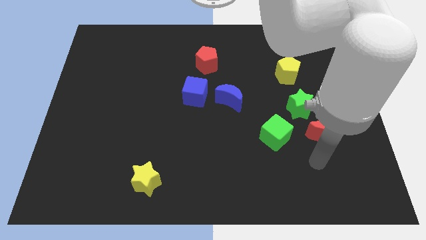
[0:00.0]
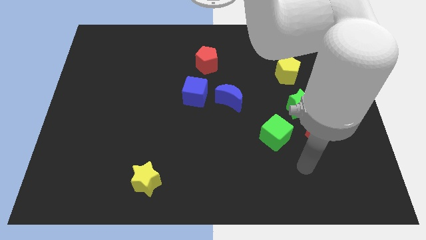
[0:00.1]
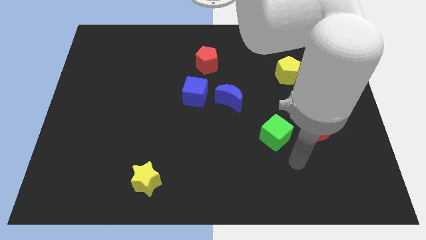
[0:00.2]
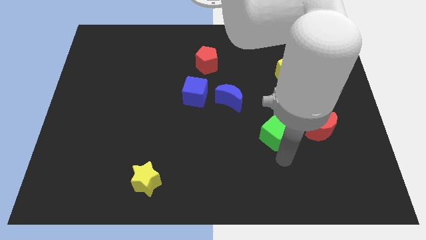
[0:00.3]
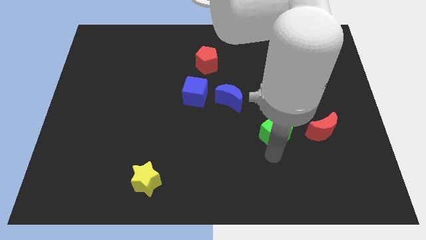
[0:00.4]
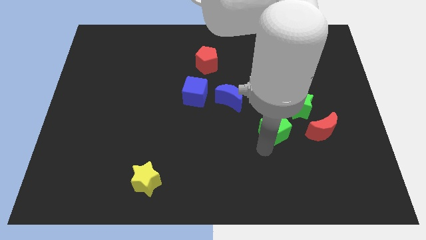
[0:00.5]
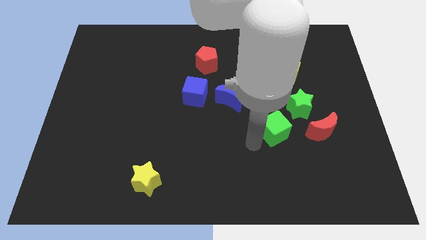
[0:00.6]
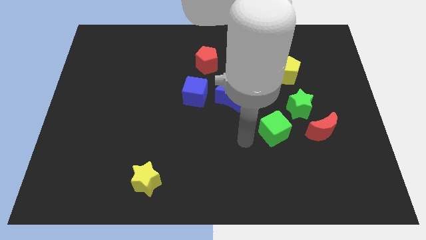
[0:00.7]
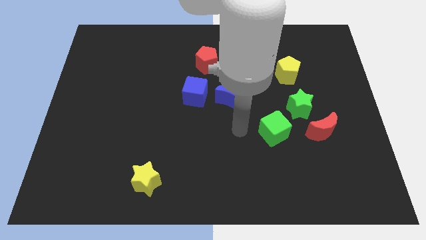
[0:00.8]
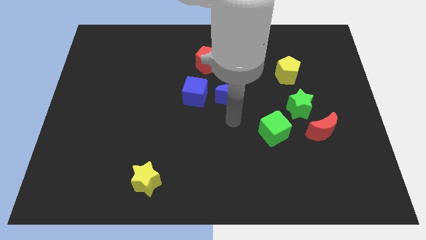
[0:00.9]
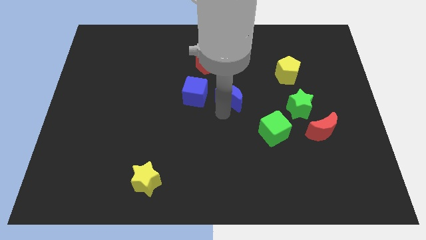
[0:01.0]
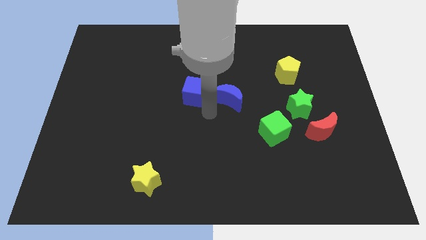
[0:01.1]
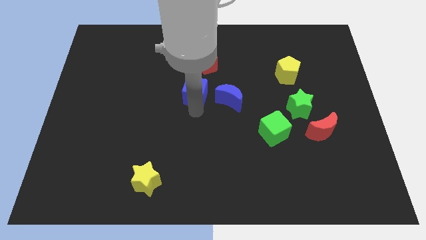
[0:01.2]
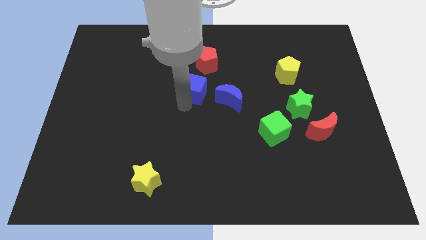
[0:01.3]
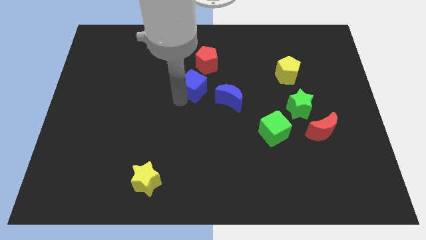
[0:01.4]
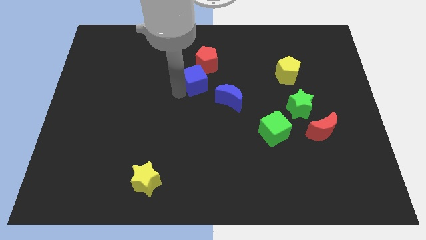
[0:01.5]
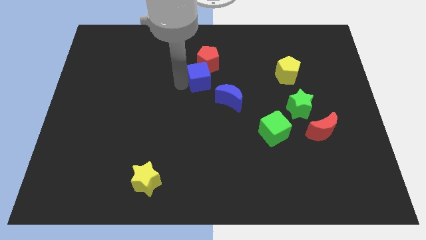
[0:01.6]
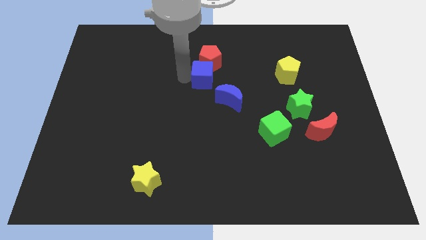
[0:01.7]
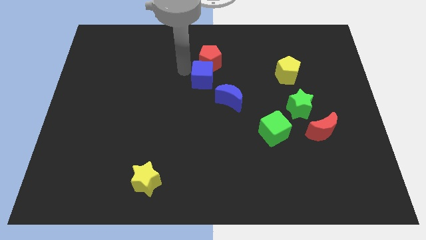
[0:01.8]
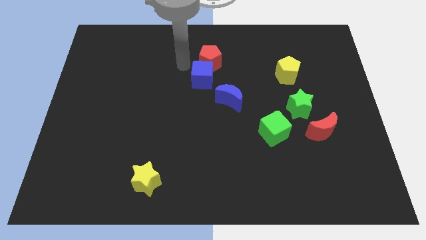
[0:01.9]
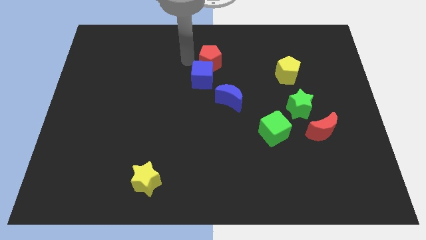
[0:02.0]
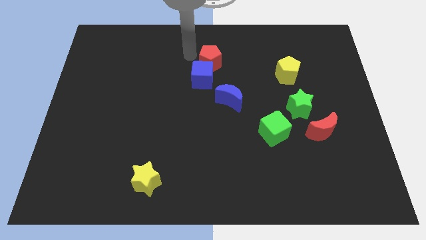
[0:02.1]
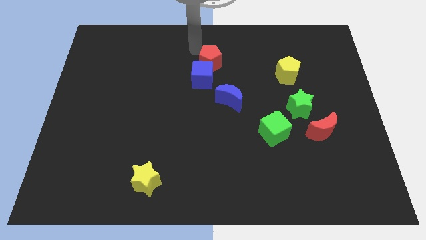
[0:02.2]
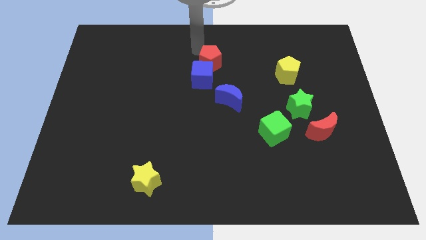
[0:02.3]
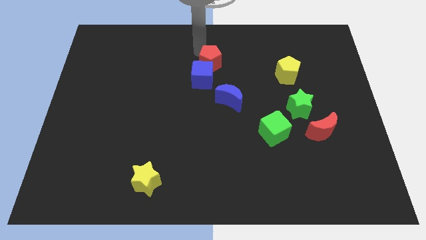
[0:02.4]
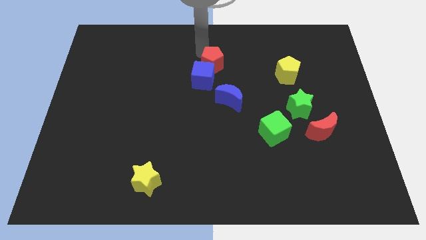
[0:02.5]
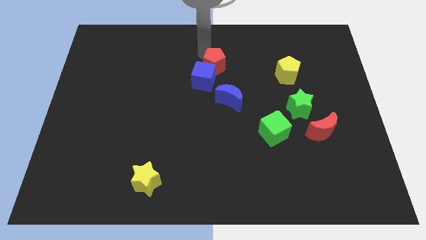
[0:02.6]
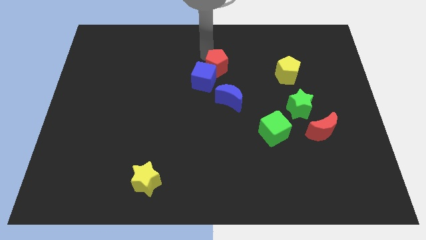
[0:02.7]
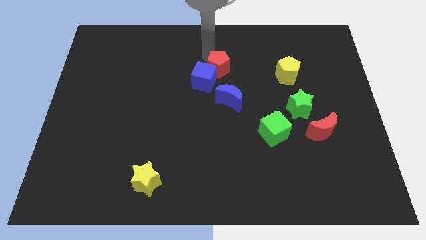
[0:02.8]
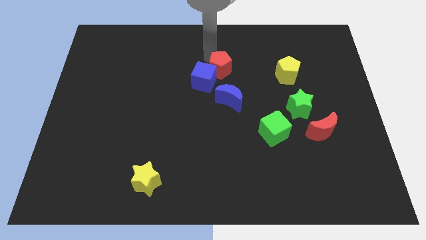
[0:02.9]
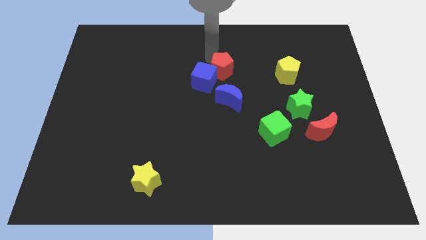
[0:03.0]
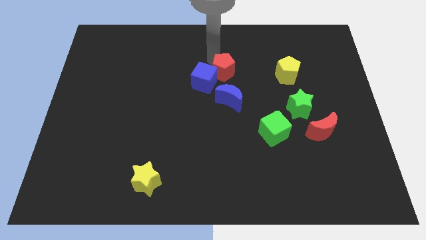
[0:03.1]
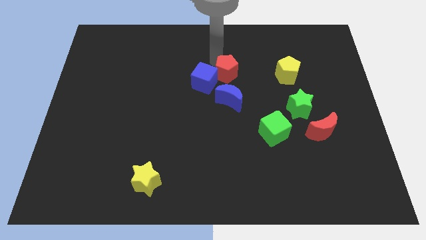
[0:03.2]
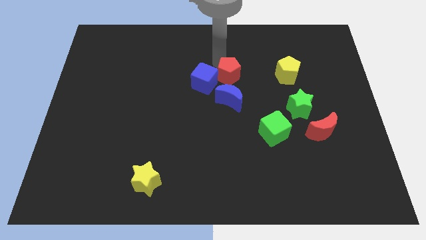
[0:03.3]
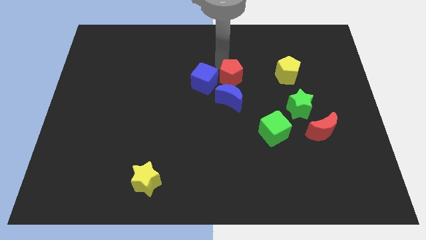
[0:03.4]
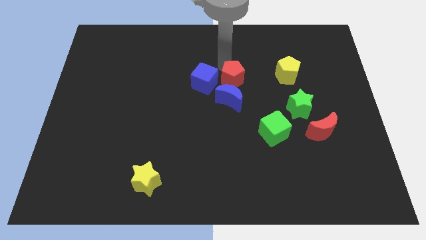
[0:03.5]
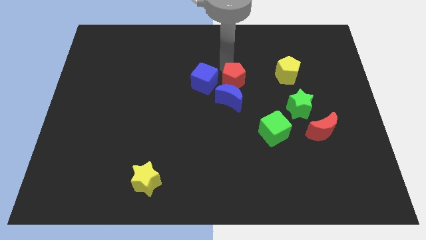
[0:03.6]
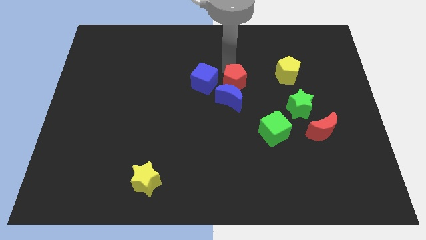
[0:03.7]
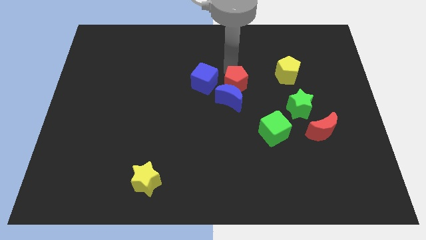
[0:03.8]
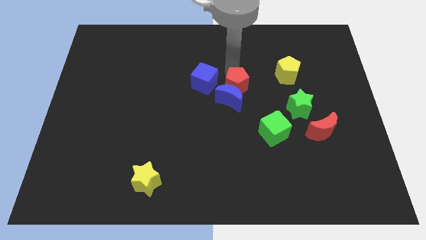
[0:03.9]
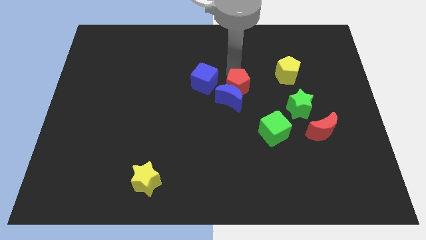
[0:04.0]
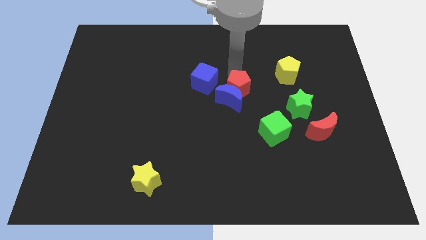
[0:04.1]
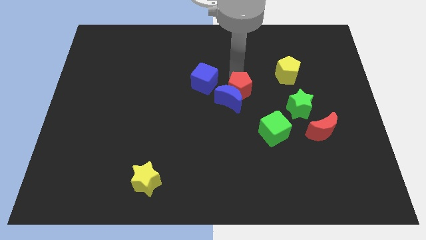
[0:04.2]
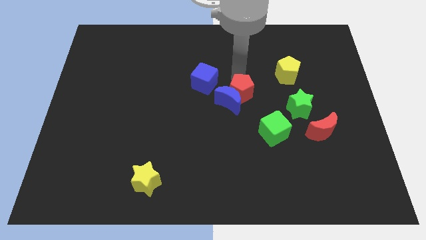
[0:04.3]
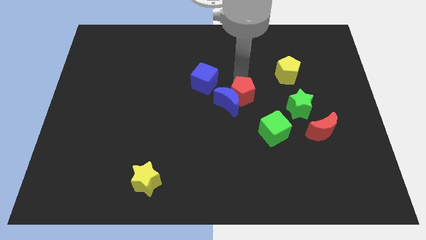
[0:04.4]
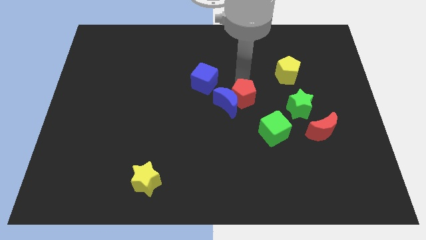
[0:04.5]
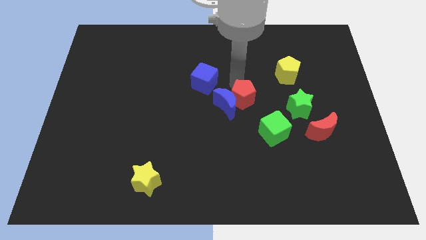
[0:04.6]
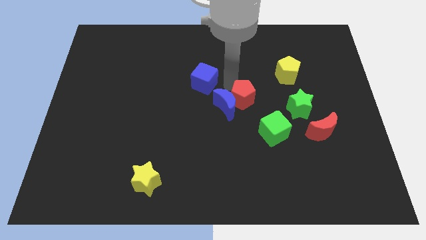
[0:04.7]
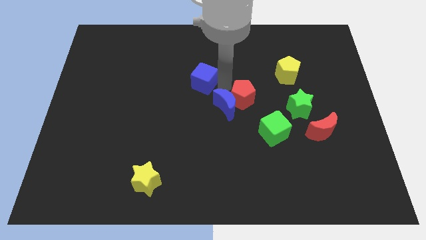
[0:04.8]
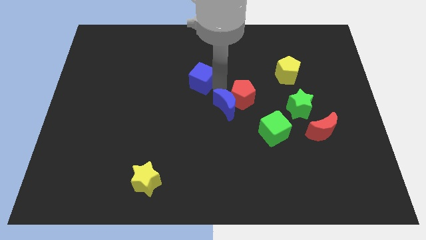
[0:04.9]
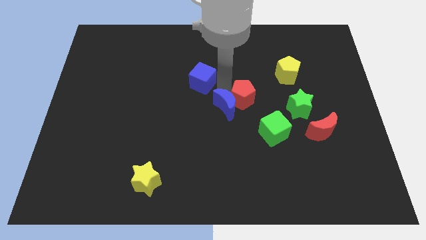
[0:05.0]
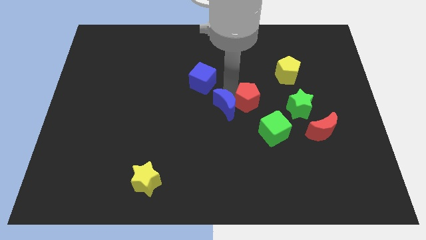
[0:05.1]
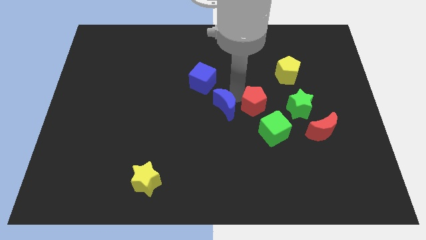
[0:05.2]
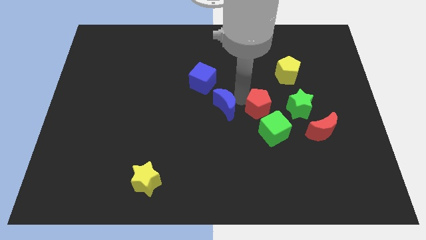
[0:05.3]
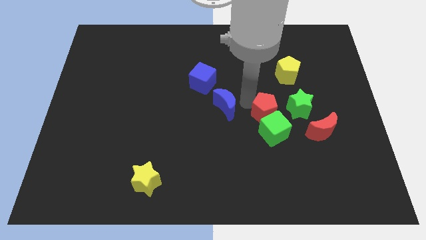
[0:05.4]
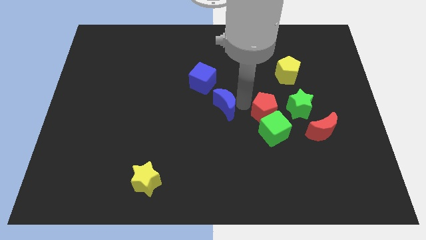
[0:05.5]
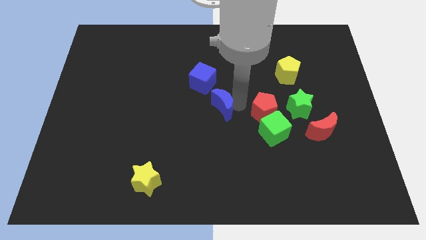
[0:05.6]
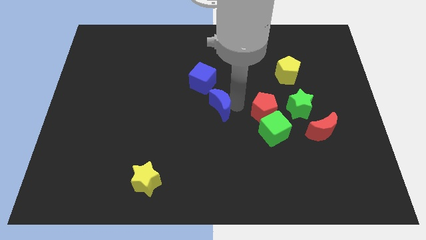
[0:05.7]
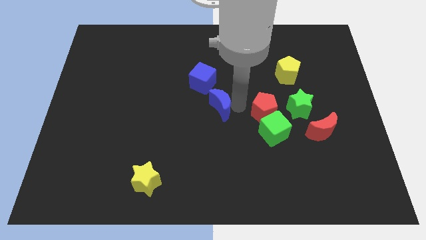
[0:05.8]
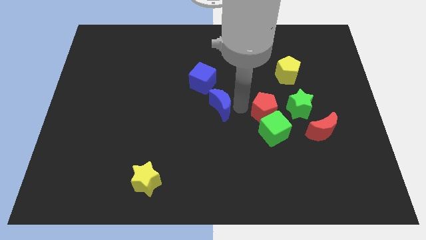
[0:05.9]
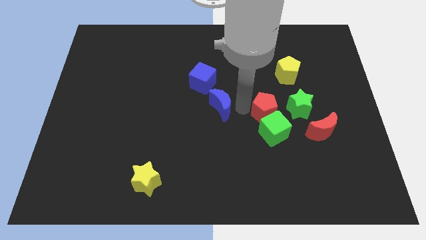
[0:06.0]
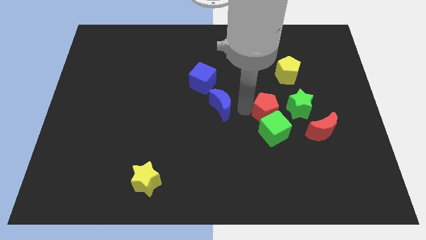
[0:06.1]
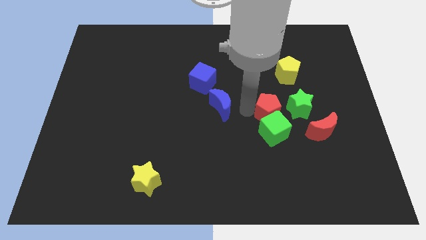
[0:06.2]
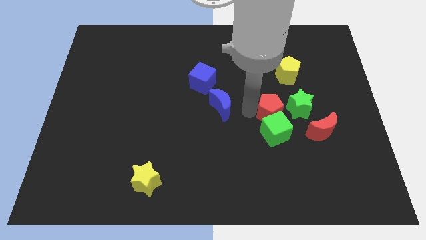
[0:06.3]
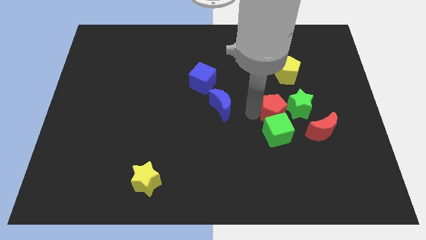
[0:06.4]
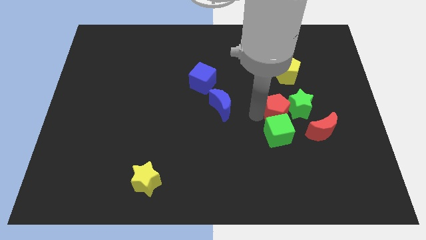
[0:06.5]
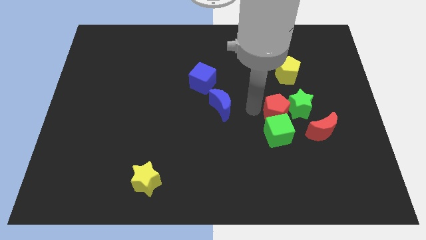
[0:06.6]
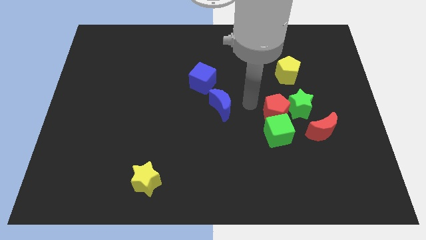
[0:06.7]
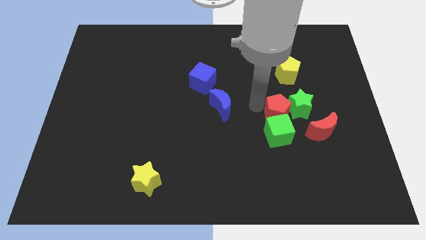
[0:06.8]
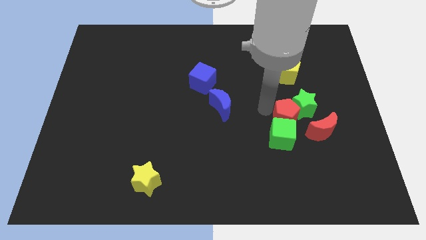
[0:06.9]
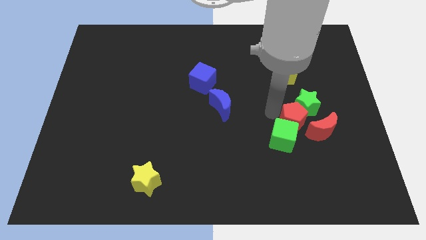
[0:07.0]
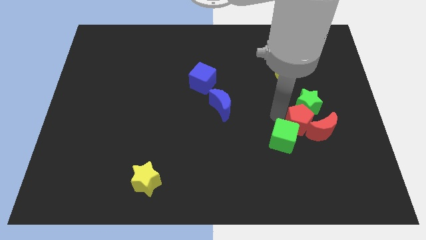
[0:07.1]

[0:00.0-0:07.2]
move the red pentagon close to the red moon
